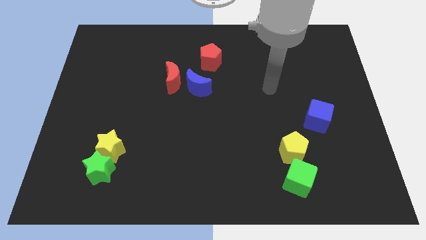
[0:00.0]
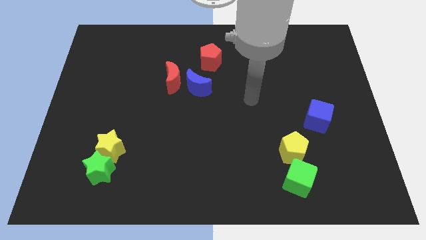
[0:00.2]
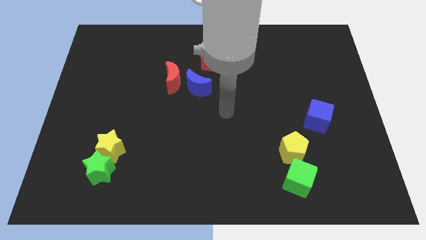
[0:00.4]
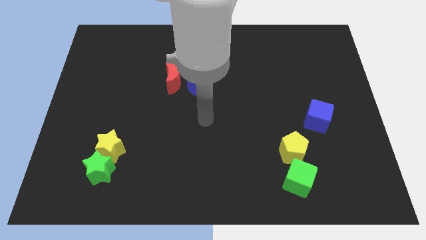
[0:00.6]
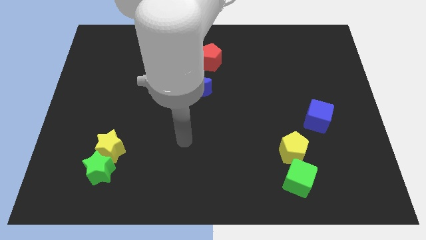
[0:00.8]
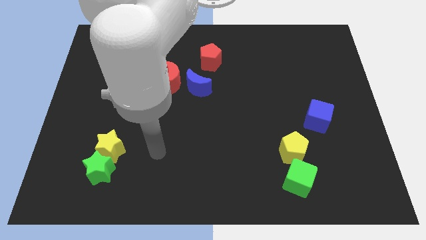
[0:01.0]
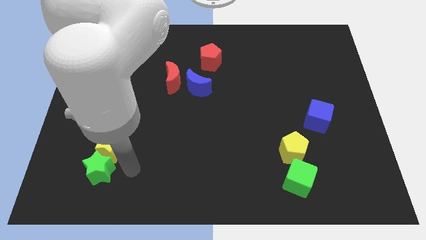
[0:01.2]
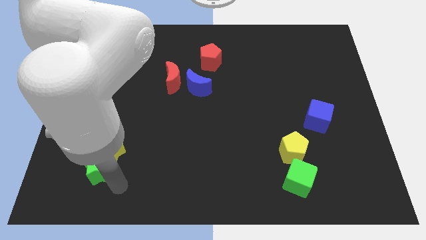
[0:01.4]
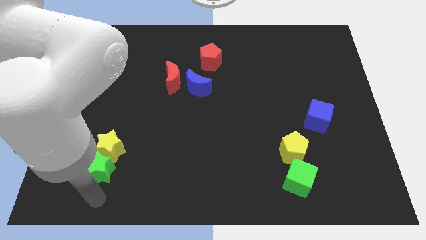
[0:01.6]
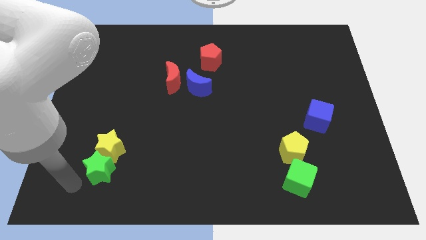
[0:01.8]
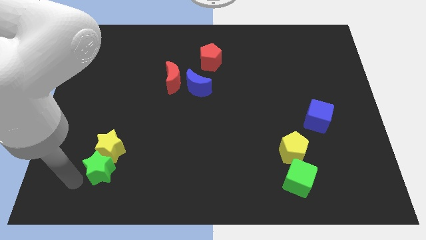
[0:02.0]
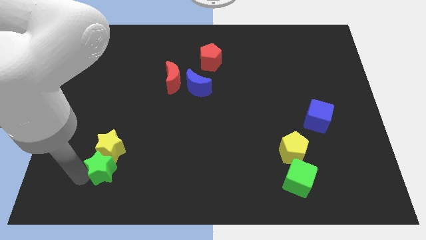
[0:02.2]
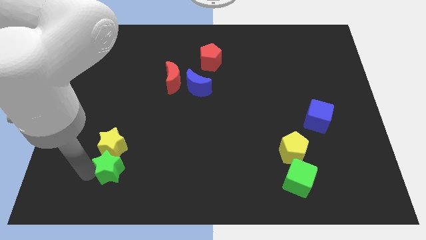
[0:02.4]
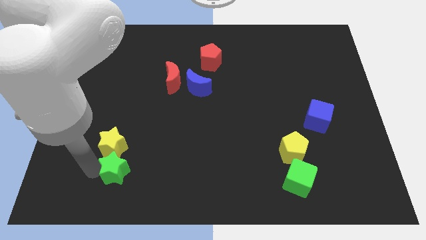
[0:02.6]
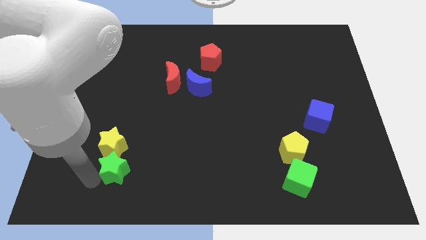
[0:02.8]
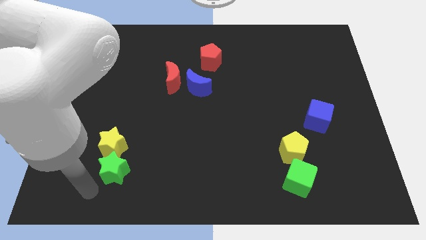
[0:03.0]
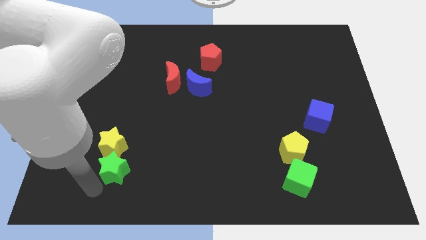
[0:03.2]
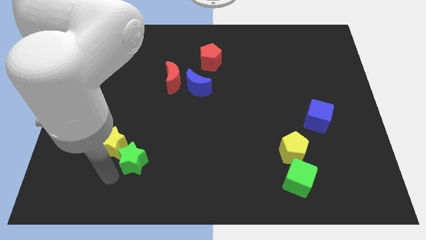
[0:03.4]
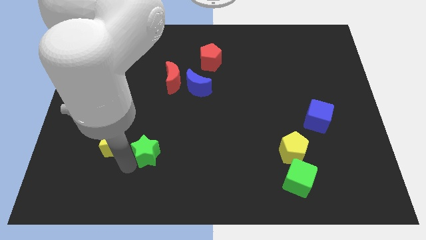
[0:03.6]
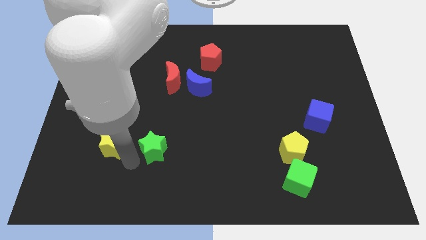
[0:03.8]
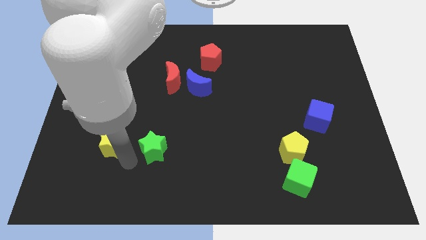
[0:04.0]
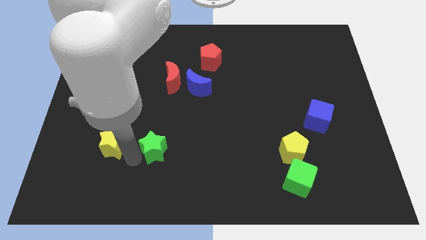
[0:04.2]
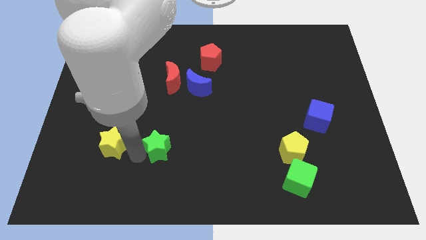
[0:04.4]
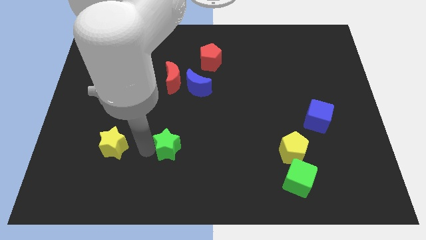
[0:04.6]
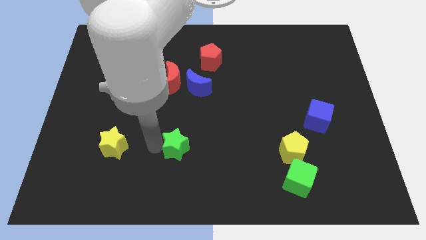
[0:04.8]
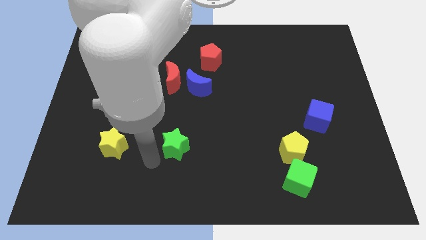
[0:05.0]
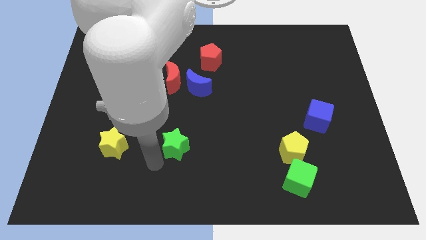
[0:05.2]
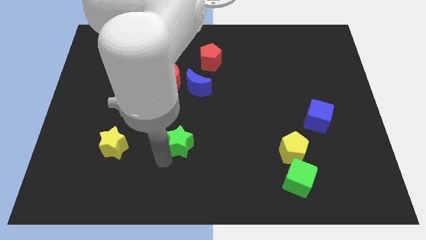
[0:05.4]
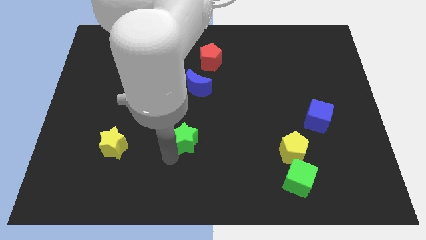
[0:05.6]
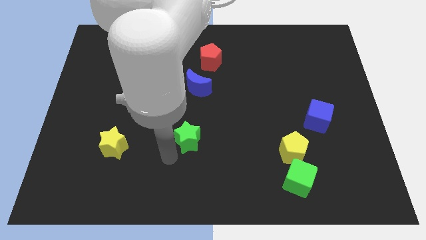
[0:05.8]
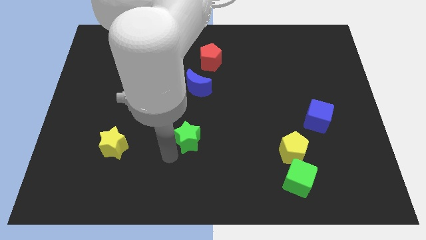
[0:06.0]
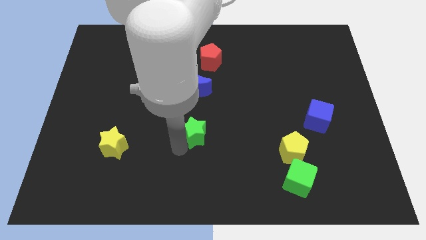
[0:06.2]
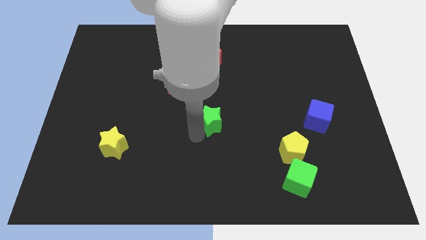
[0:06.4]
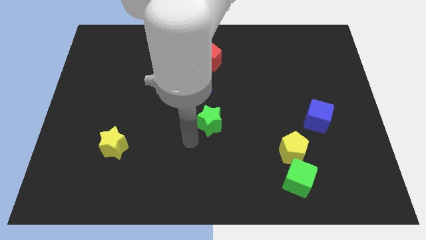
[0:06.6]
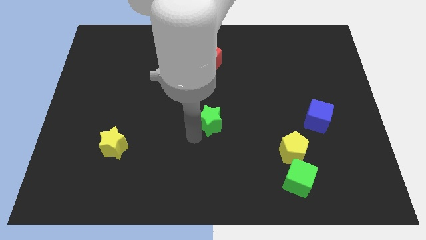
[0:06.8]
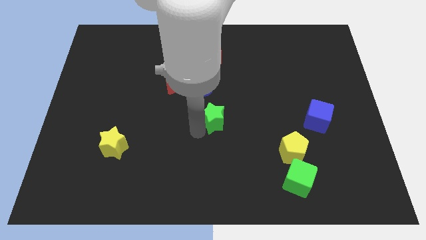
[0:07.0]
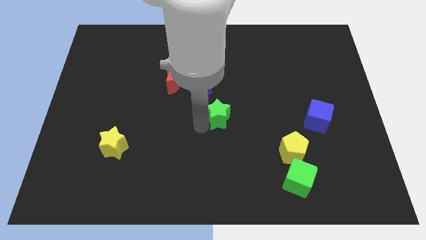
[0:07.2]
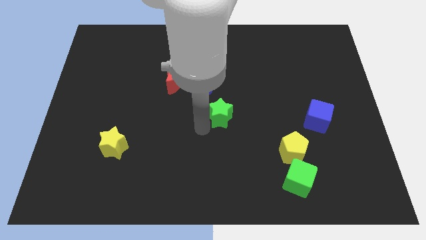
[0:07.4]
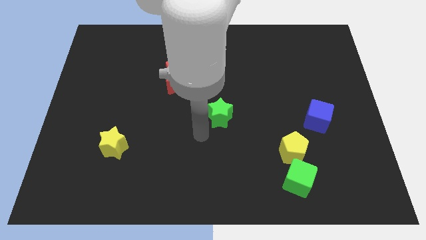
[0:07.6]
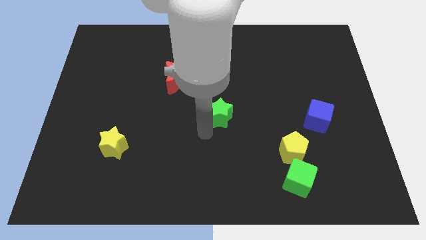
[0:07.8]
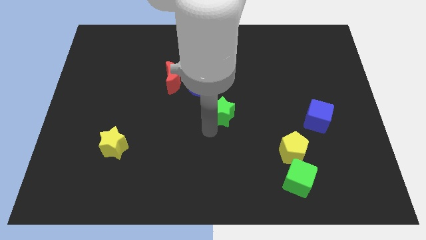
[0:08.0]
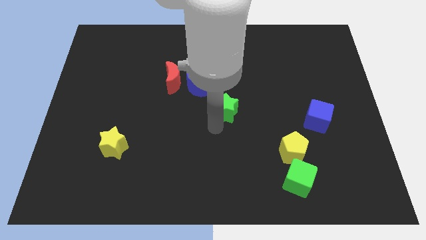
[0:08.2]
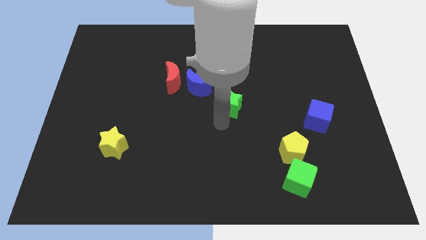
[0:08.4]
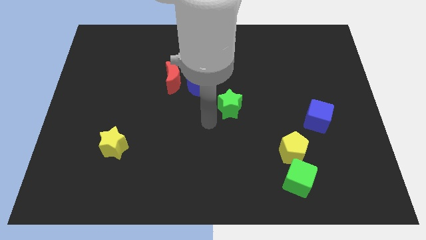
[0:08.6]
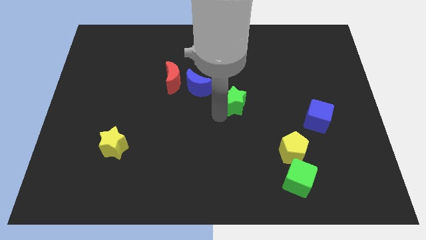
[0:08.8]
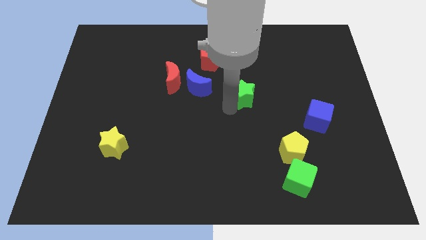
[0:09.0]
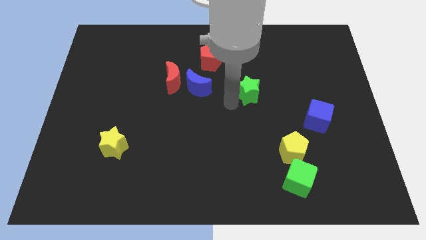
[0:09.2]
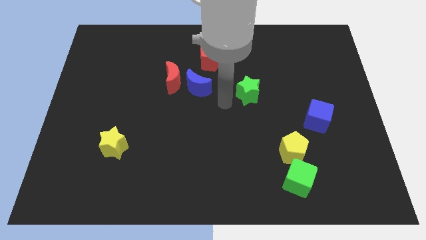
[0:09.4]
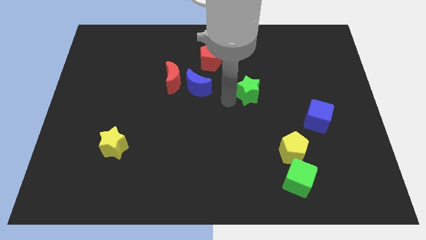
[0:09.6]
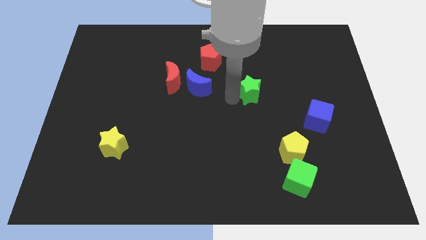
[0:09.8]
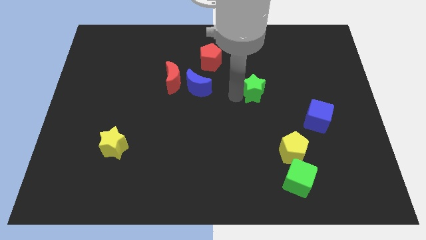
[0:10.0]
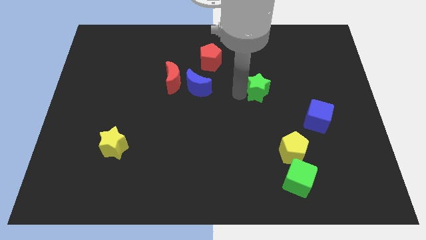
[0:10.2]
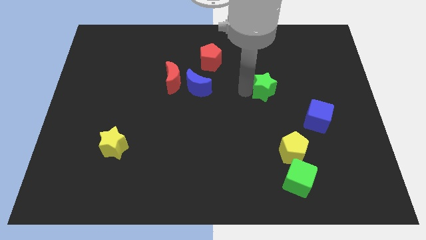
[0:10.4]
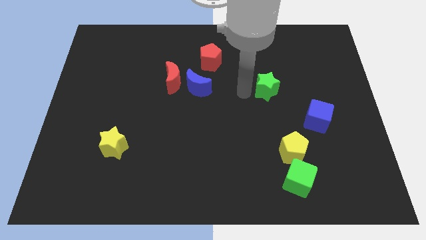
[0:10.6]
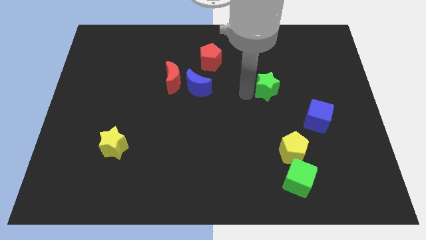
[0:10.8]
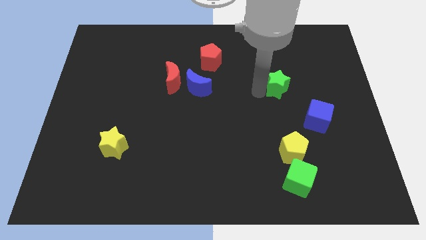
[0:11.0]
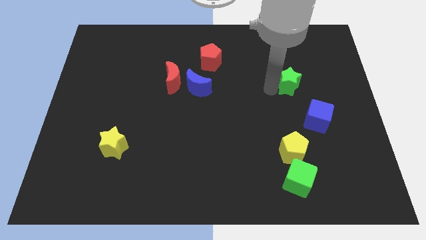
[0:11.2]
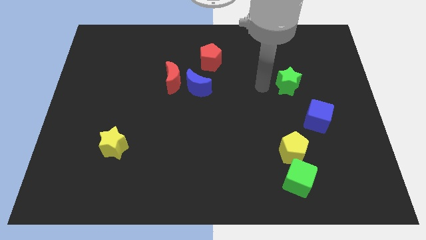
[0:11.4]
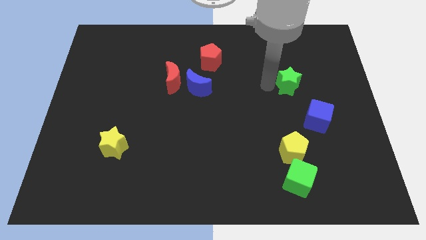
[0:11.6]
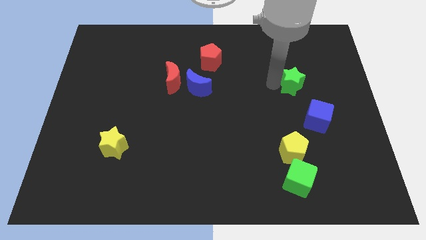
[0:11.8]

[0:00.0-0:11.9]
move the green star to the top of the blue cube

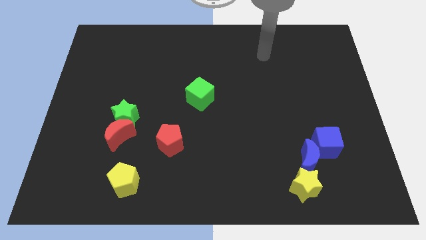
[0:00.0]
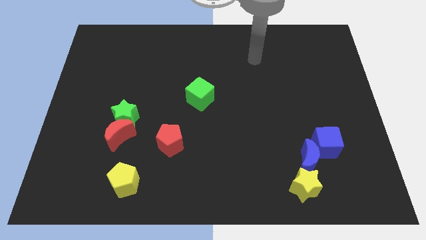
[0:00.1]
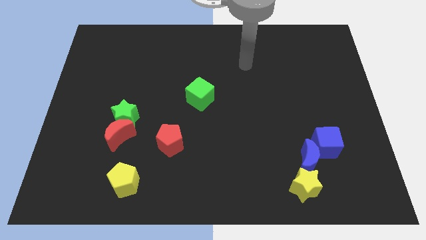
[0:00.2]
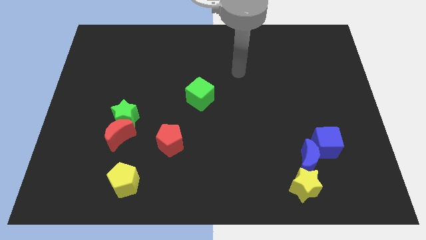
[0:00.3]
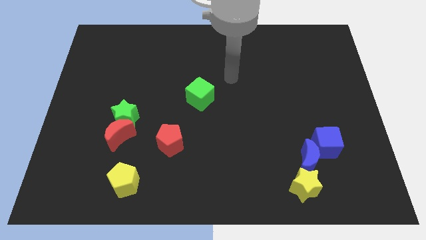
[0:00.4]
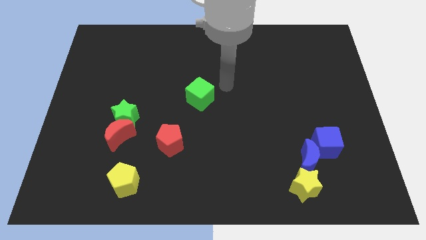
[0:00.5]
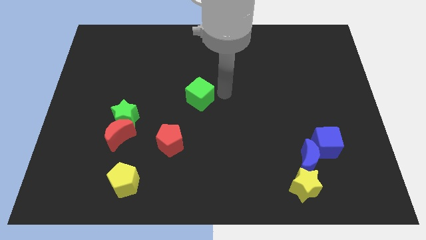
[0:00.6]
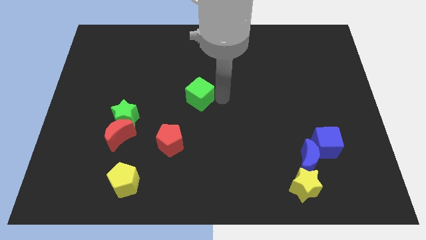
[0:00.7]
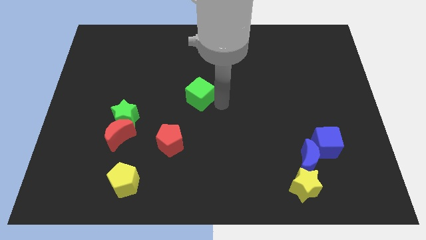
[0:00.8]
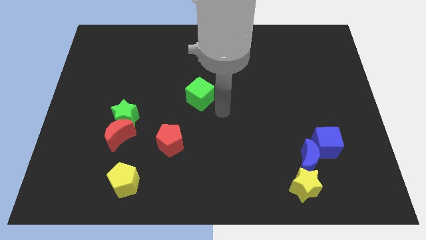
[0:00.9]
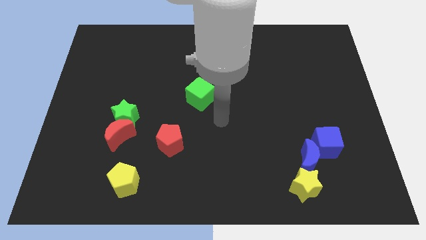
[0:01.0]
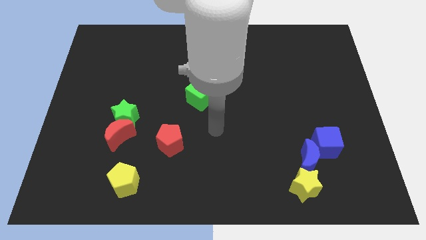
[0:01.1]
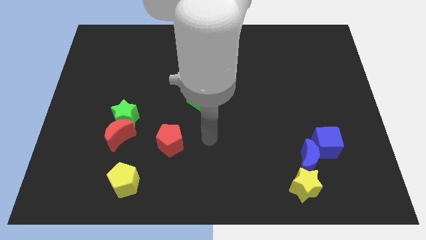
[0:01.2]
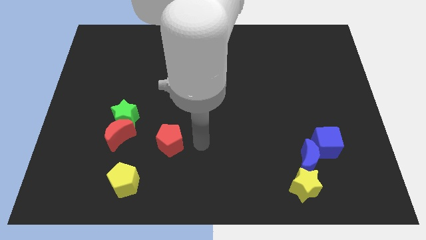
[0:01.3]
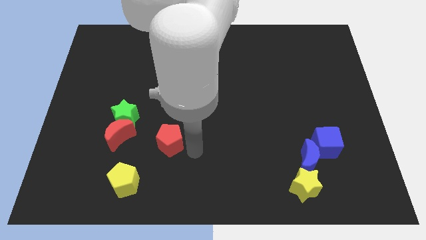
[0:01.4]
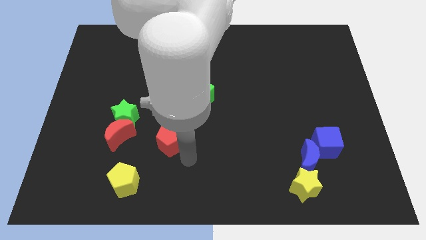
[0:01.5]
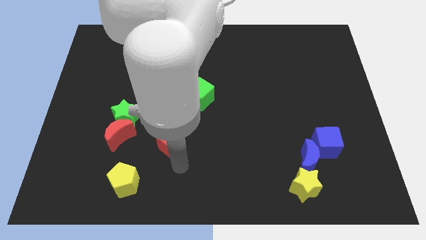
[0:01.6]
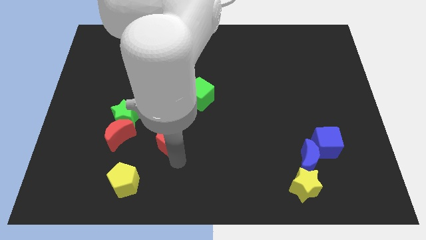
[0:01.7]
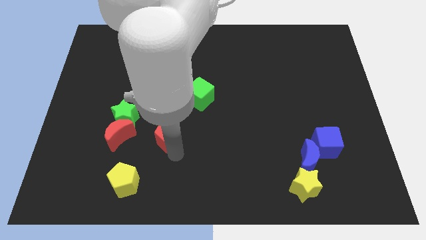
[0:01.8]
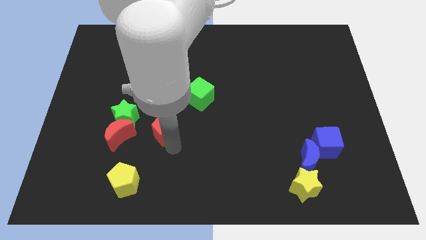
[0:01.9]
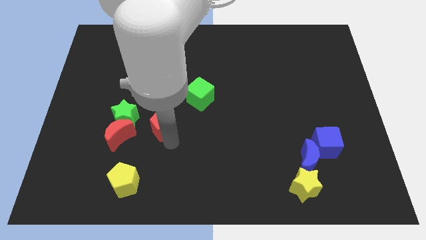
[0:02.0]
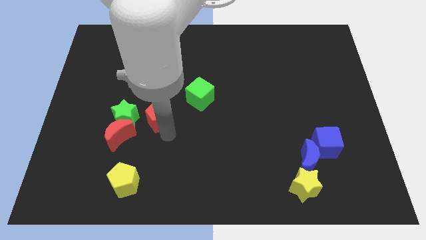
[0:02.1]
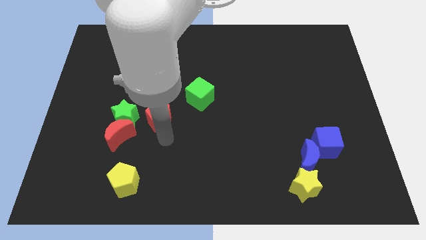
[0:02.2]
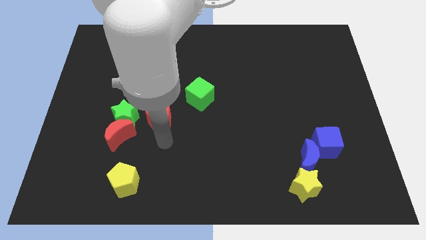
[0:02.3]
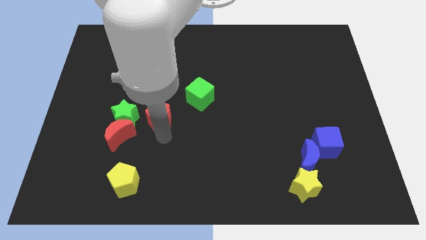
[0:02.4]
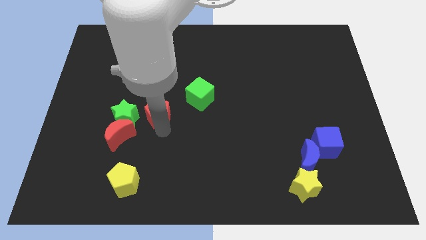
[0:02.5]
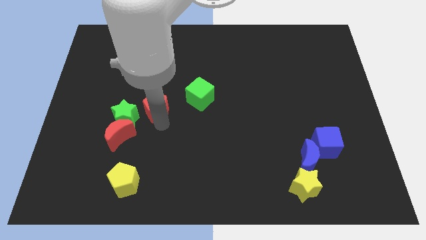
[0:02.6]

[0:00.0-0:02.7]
put the red pentagon left of the green cube
